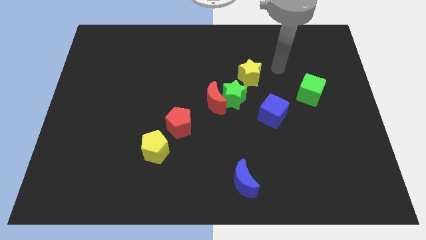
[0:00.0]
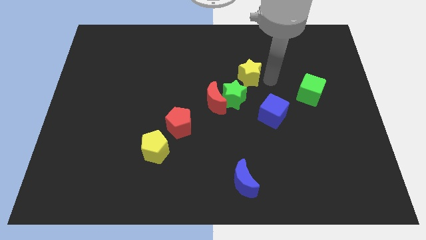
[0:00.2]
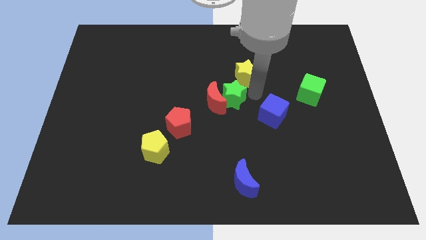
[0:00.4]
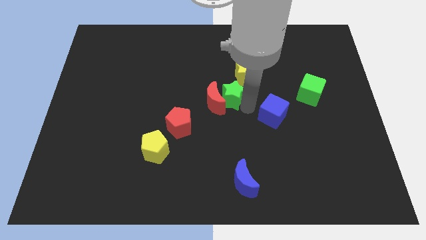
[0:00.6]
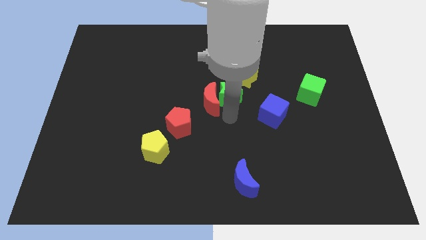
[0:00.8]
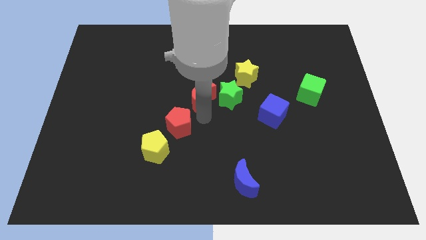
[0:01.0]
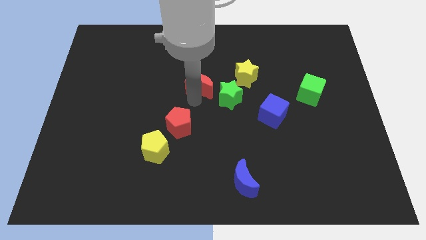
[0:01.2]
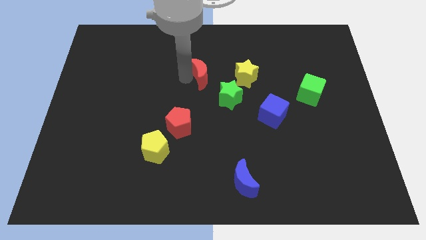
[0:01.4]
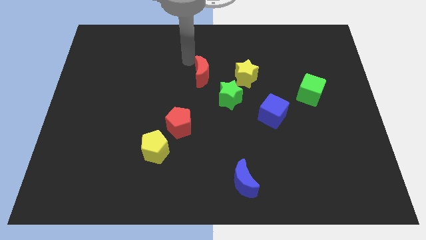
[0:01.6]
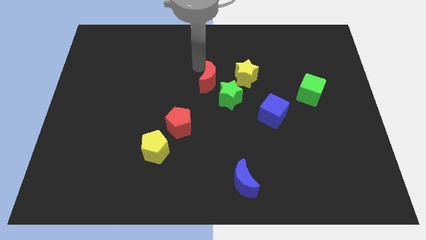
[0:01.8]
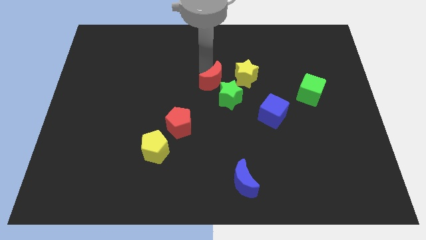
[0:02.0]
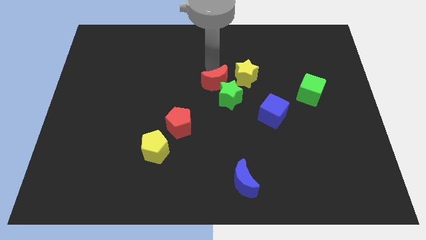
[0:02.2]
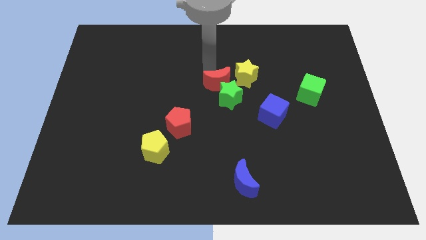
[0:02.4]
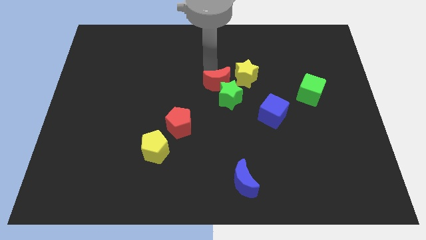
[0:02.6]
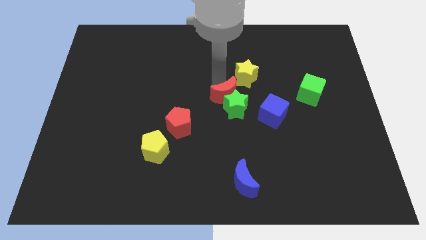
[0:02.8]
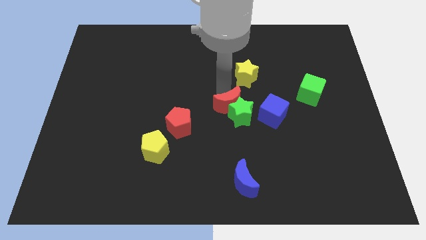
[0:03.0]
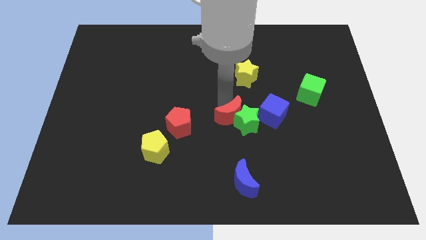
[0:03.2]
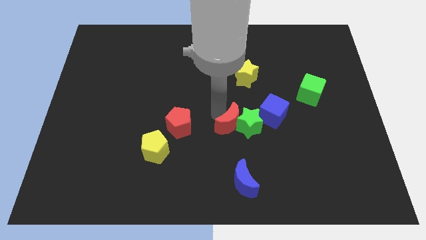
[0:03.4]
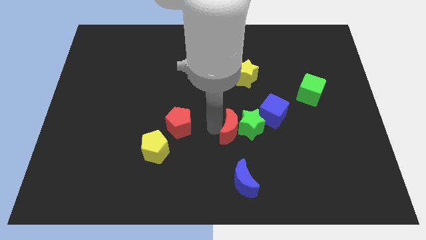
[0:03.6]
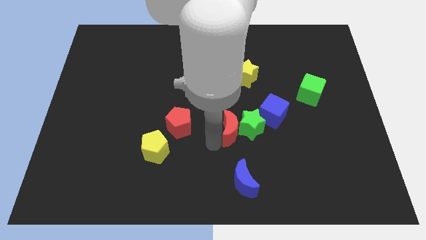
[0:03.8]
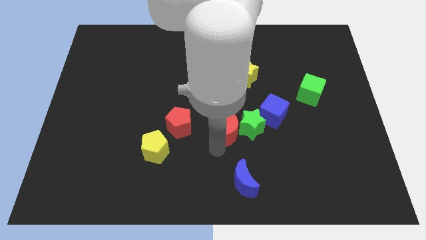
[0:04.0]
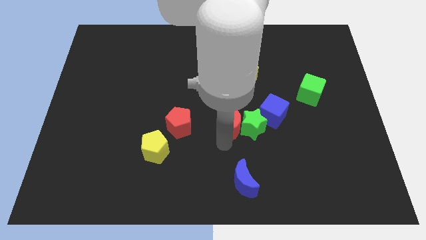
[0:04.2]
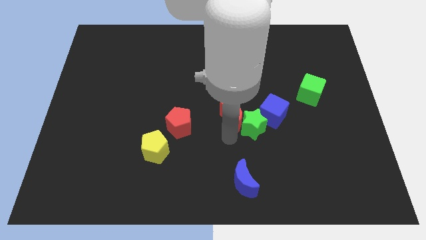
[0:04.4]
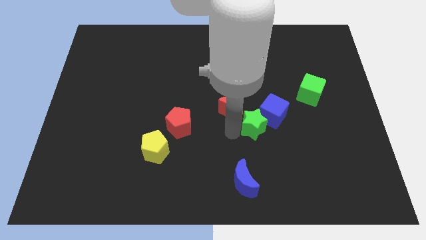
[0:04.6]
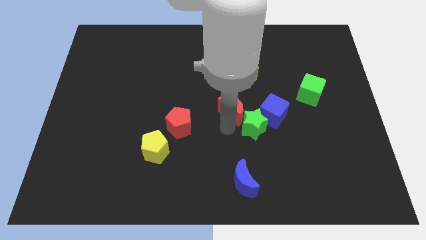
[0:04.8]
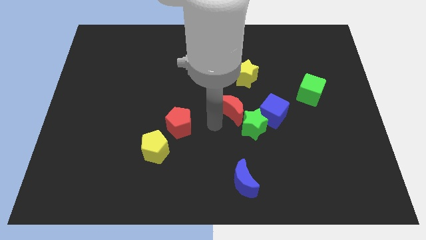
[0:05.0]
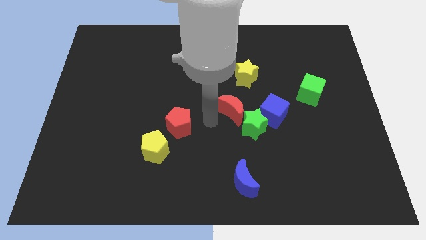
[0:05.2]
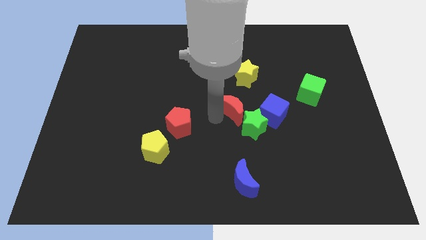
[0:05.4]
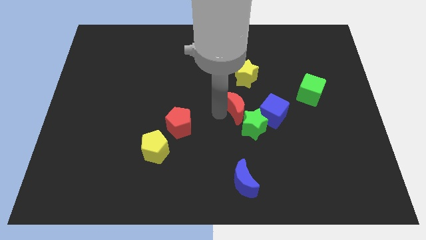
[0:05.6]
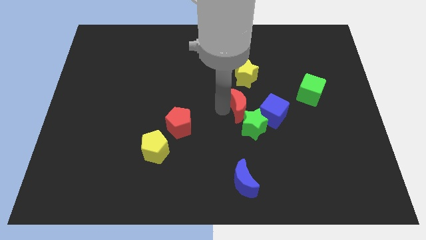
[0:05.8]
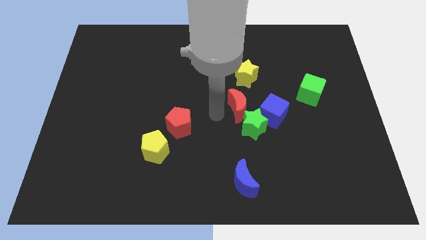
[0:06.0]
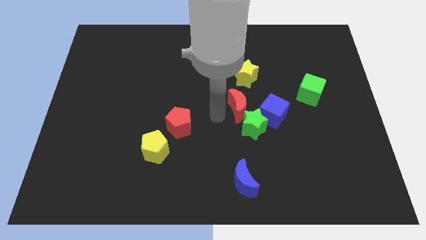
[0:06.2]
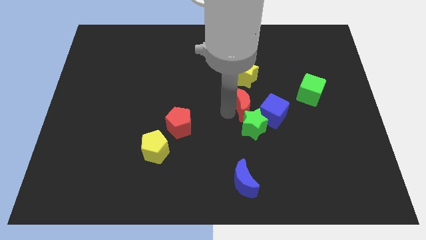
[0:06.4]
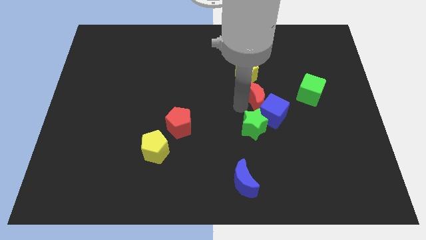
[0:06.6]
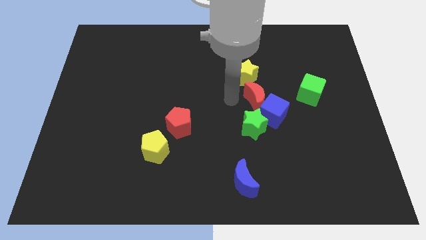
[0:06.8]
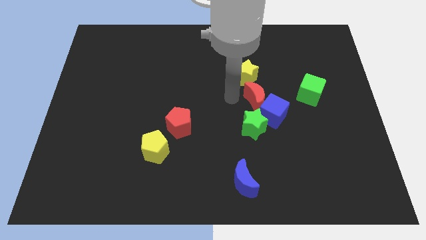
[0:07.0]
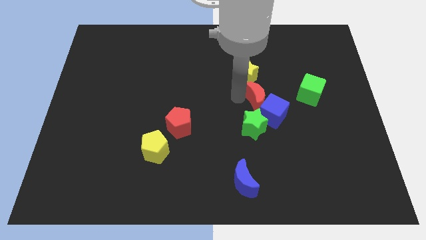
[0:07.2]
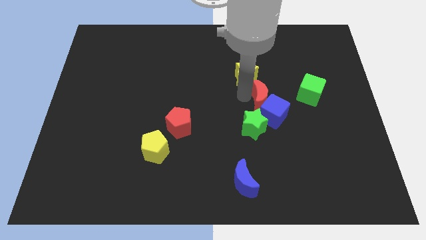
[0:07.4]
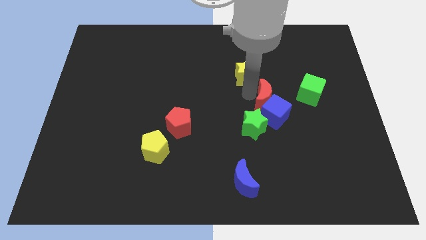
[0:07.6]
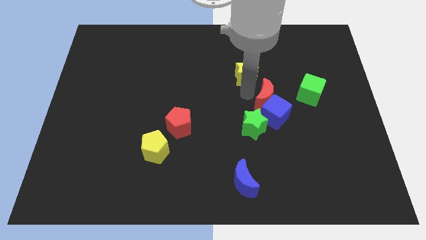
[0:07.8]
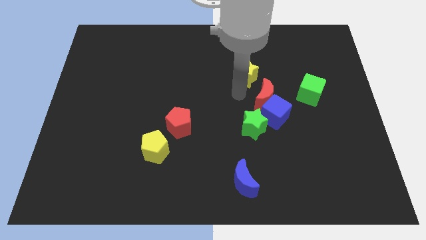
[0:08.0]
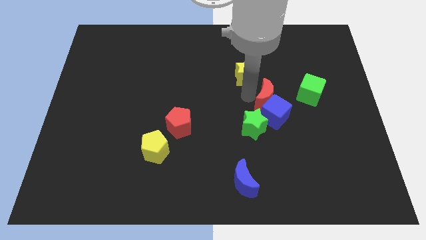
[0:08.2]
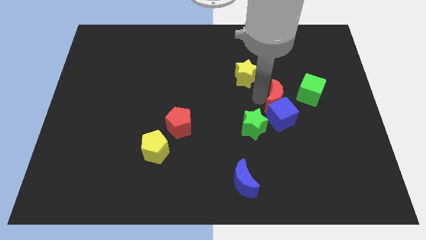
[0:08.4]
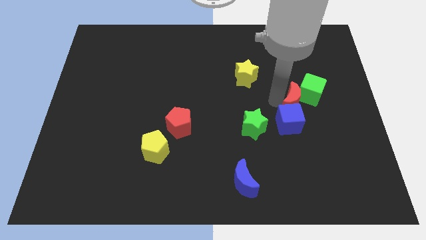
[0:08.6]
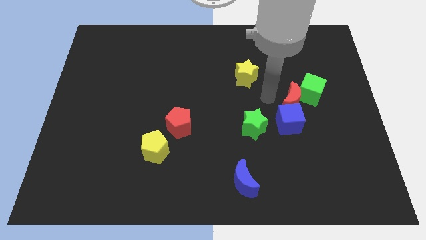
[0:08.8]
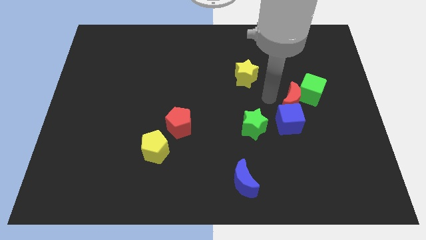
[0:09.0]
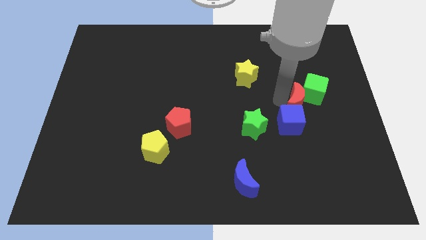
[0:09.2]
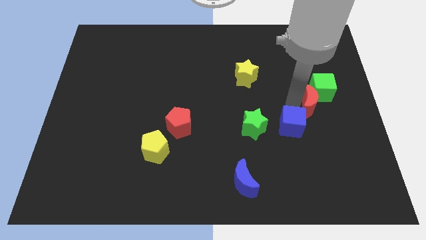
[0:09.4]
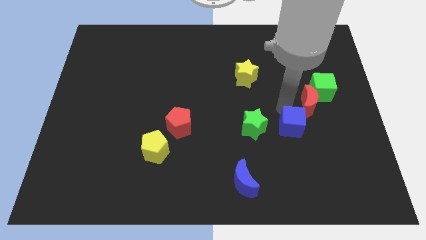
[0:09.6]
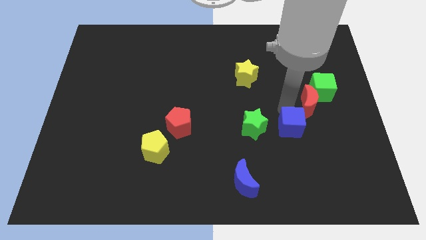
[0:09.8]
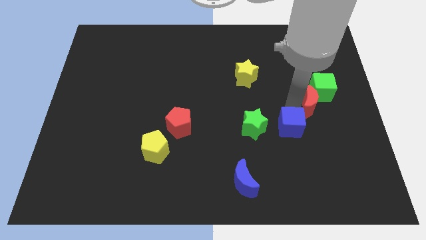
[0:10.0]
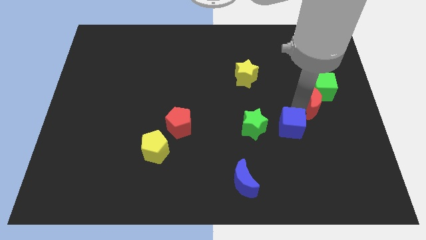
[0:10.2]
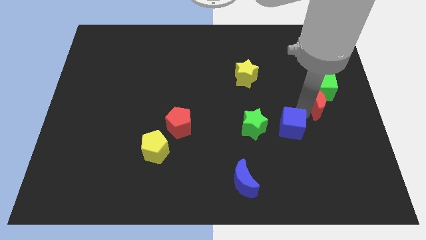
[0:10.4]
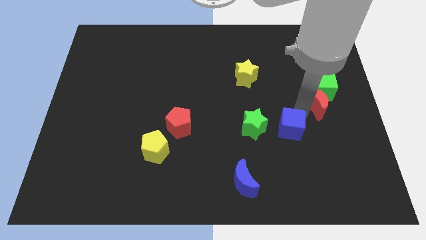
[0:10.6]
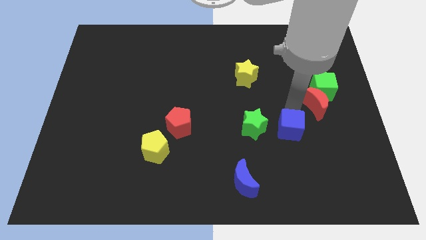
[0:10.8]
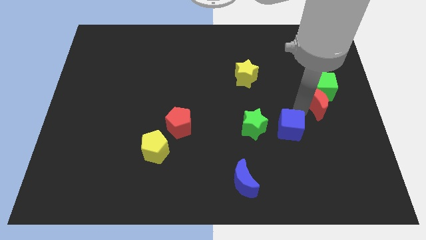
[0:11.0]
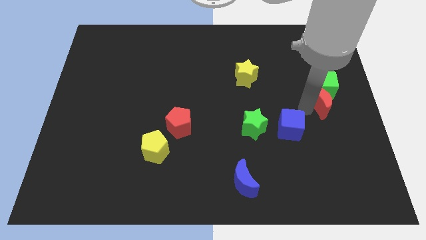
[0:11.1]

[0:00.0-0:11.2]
push the red moon to the center right
